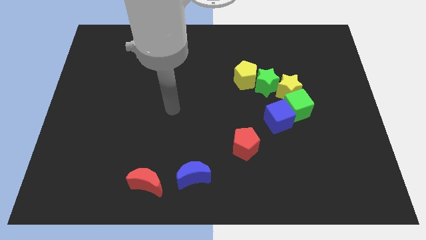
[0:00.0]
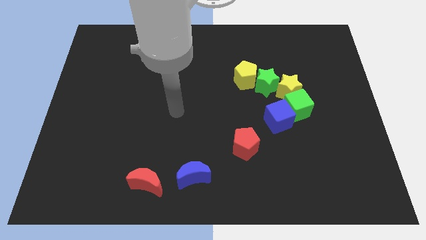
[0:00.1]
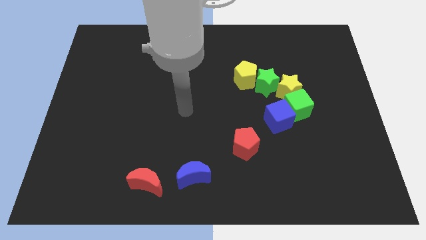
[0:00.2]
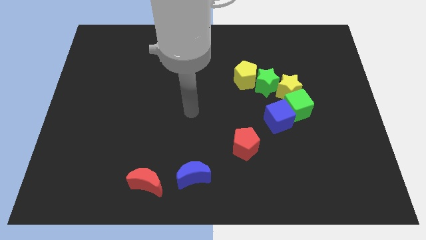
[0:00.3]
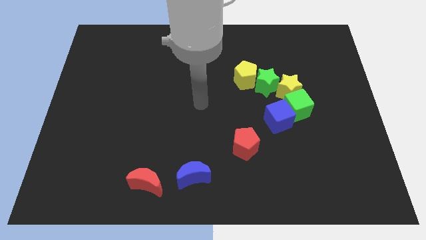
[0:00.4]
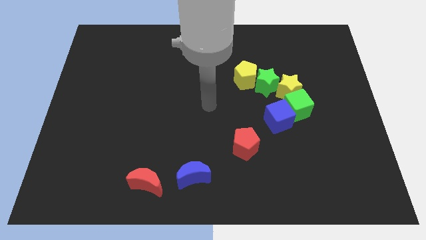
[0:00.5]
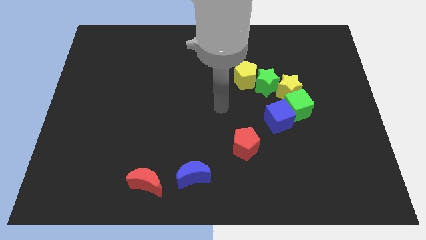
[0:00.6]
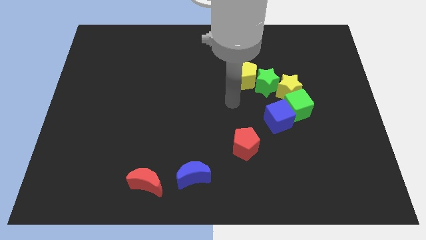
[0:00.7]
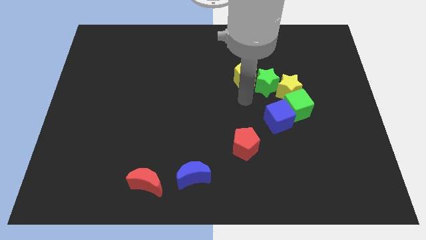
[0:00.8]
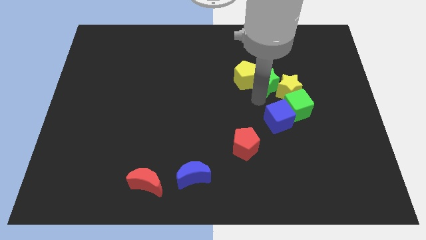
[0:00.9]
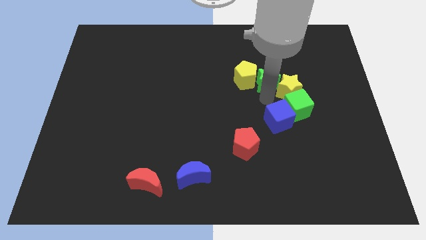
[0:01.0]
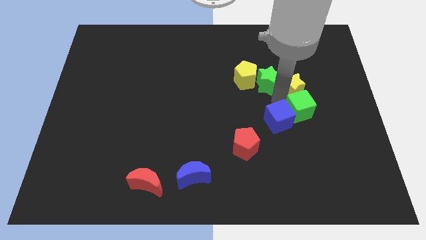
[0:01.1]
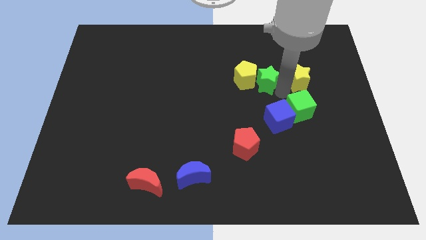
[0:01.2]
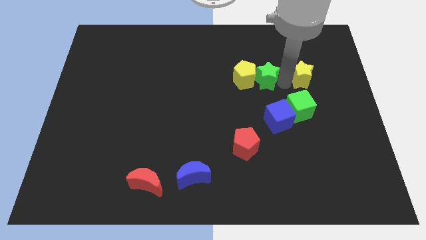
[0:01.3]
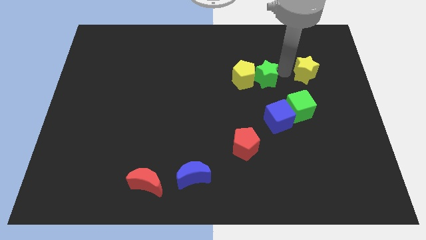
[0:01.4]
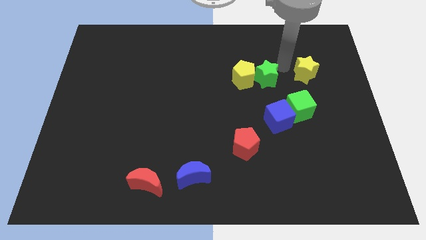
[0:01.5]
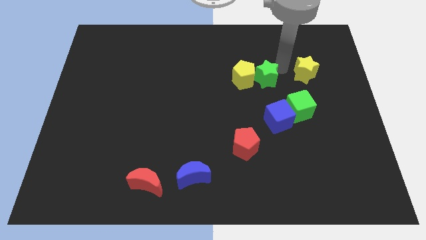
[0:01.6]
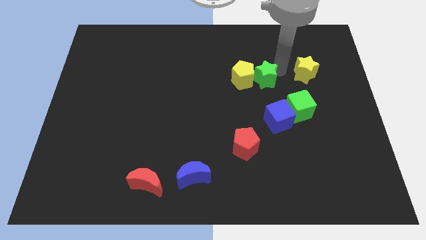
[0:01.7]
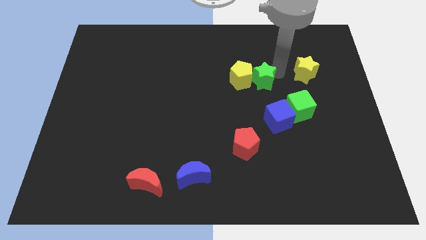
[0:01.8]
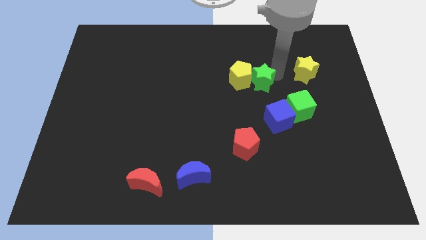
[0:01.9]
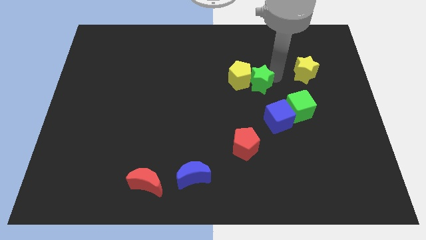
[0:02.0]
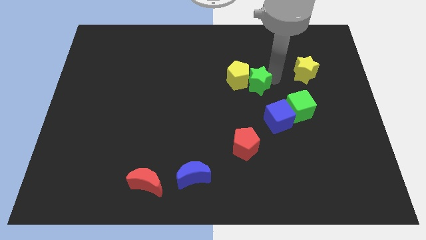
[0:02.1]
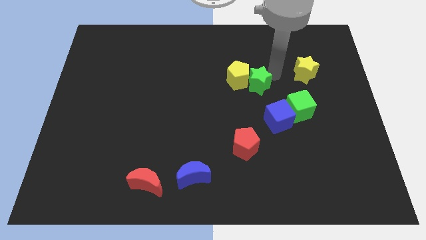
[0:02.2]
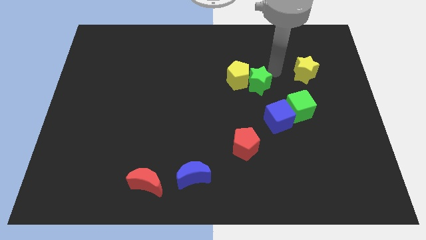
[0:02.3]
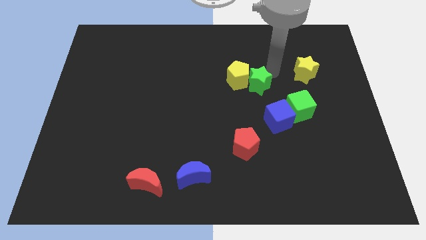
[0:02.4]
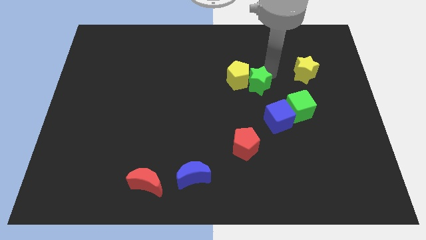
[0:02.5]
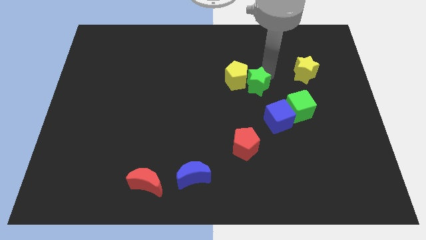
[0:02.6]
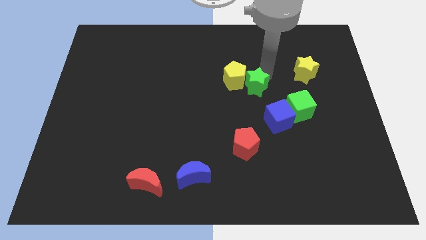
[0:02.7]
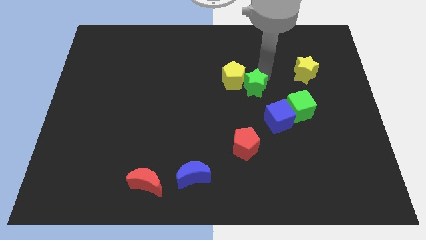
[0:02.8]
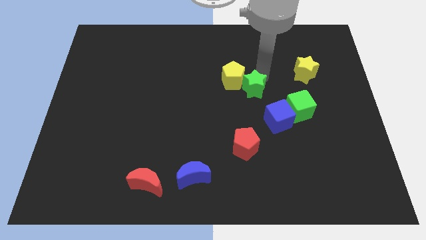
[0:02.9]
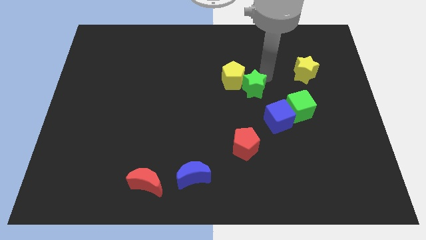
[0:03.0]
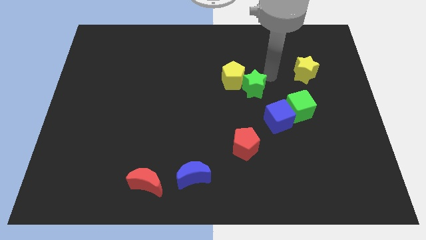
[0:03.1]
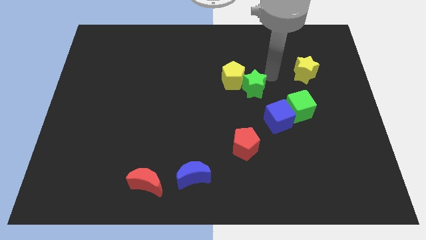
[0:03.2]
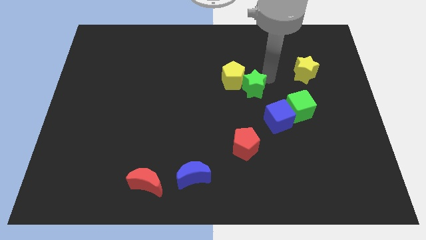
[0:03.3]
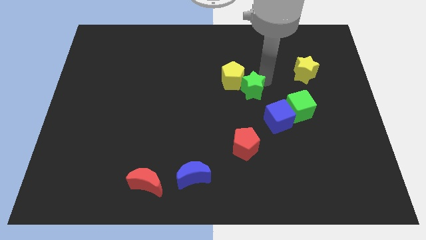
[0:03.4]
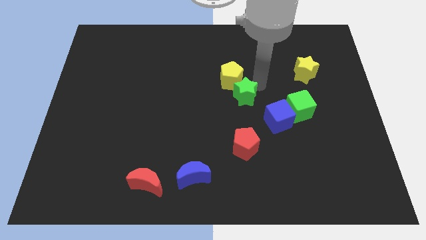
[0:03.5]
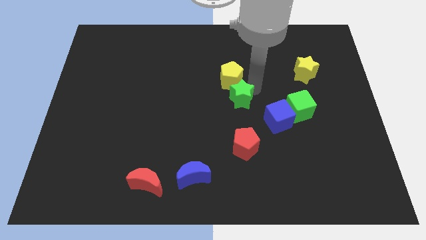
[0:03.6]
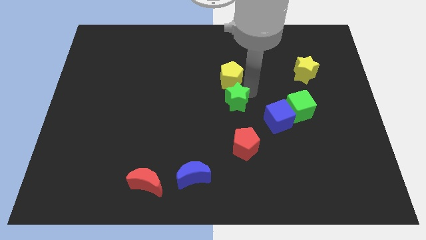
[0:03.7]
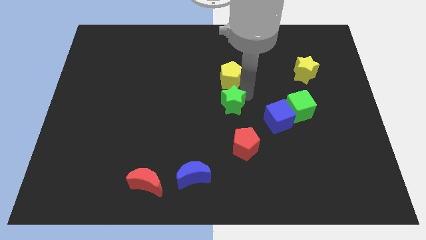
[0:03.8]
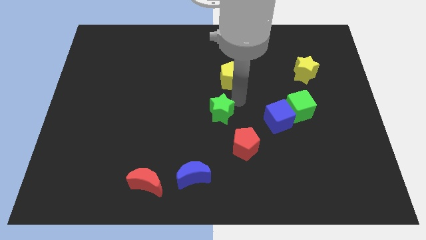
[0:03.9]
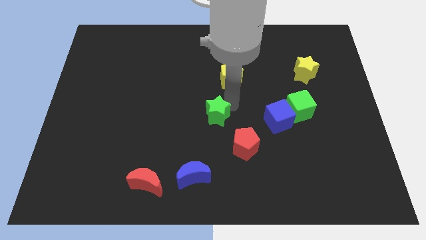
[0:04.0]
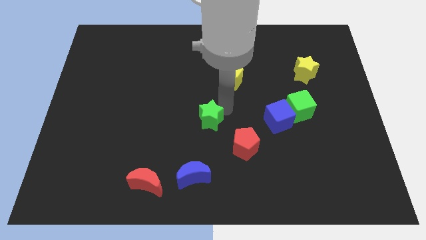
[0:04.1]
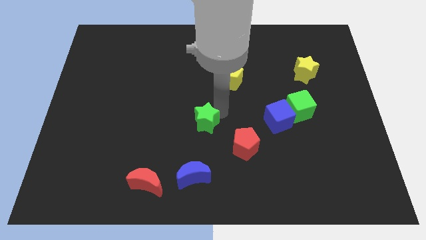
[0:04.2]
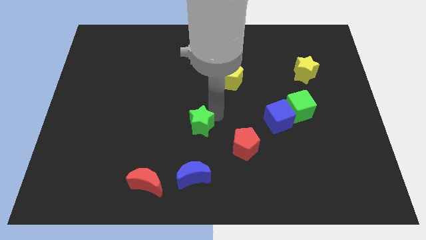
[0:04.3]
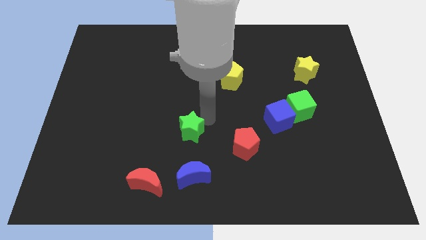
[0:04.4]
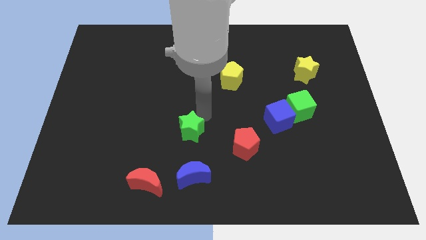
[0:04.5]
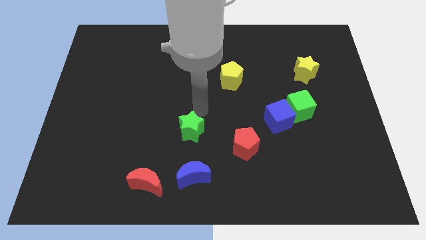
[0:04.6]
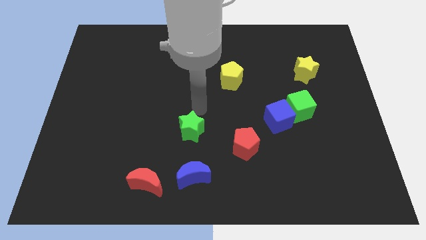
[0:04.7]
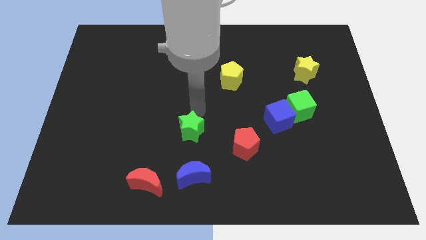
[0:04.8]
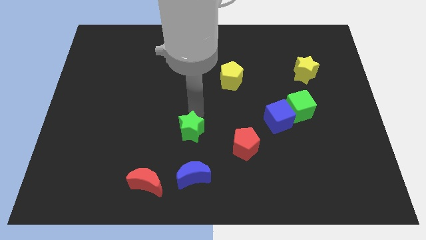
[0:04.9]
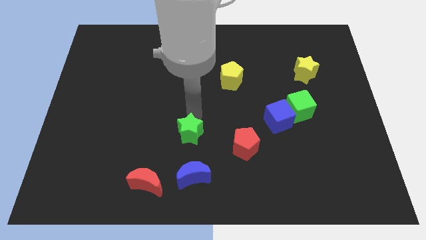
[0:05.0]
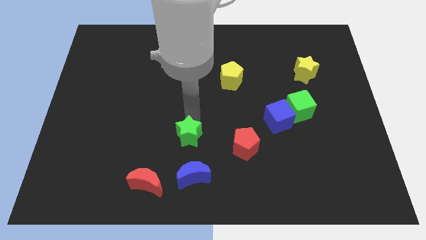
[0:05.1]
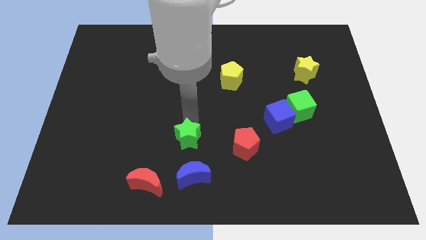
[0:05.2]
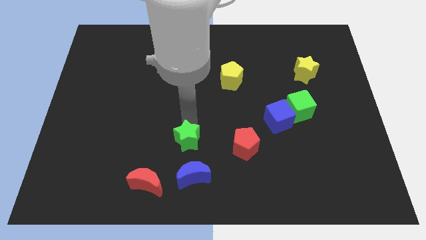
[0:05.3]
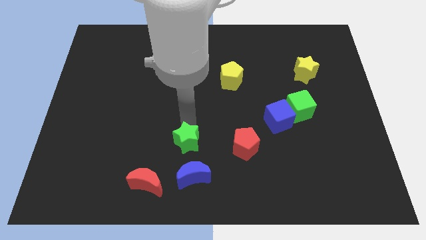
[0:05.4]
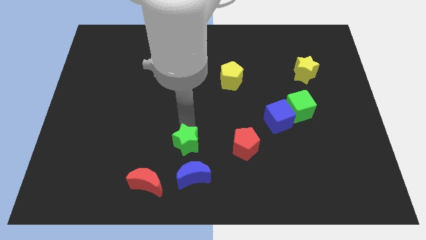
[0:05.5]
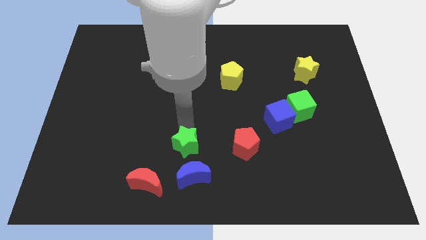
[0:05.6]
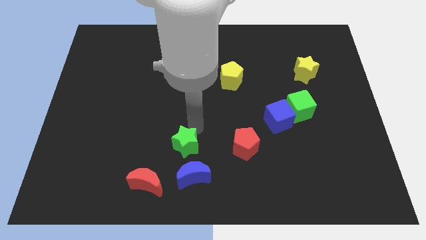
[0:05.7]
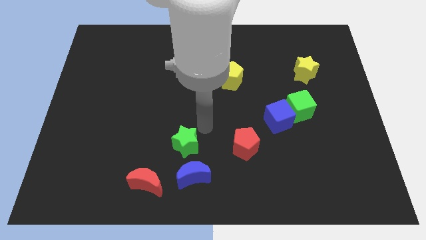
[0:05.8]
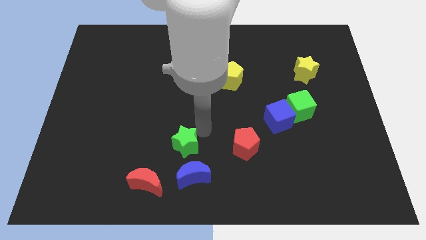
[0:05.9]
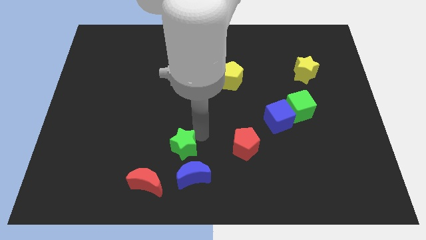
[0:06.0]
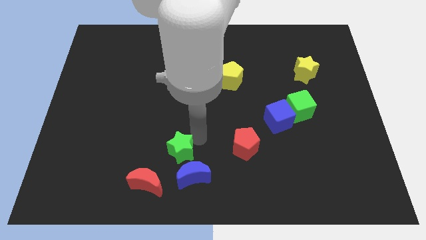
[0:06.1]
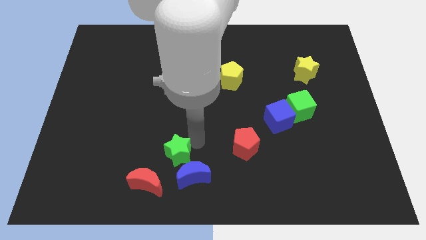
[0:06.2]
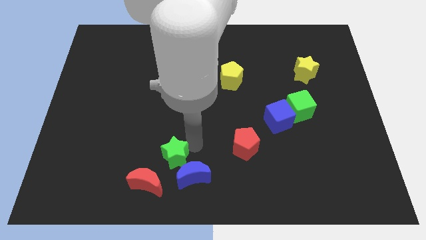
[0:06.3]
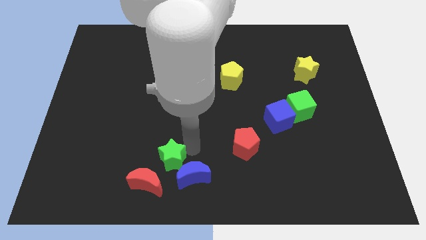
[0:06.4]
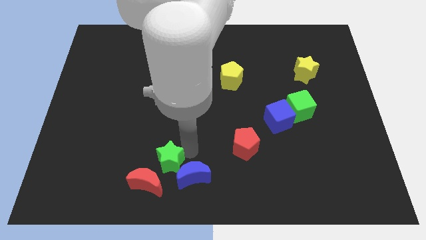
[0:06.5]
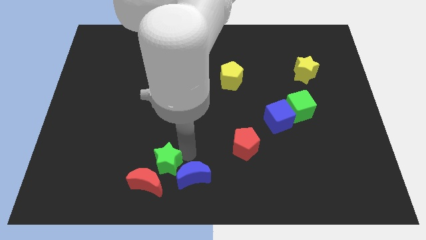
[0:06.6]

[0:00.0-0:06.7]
put the green star to the red moon

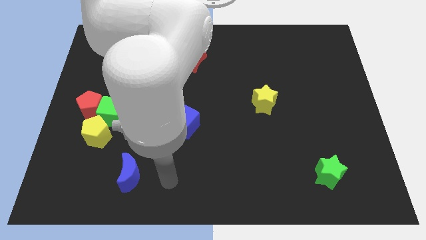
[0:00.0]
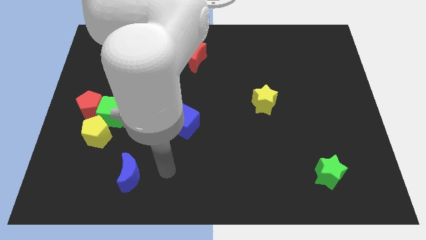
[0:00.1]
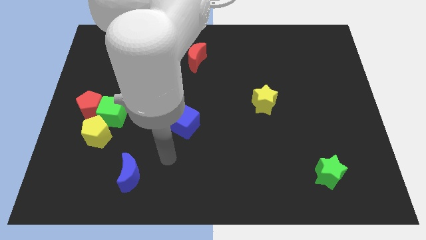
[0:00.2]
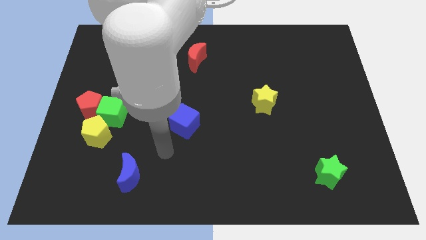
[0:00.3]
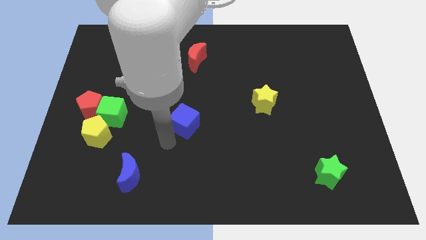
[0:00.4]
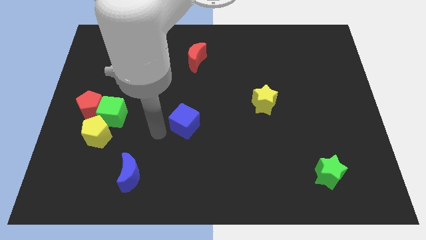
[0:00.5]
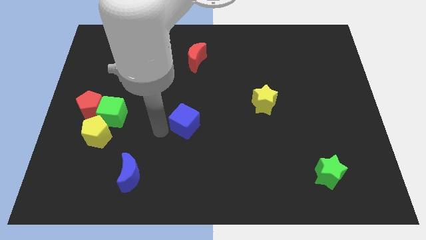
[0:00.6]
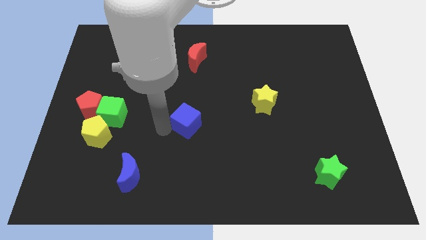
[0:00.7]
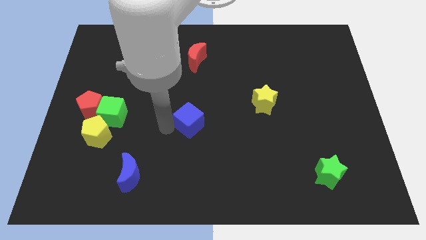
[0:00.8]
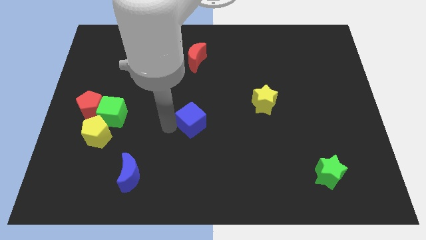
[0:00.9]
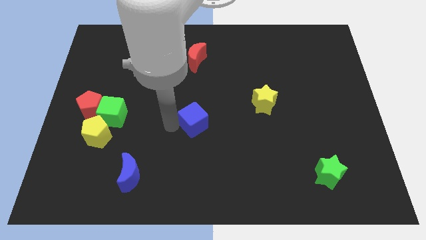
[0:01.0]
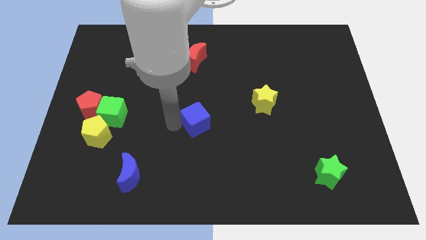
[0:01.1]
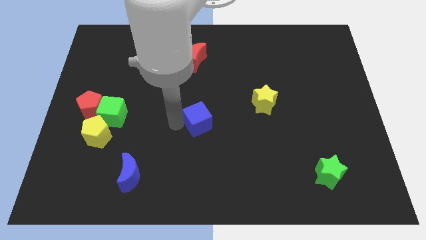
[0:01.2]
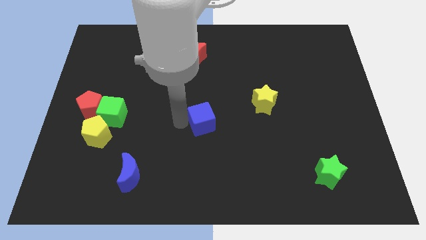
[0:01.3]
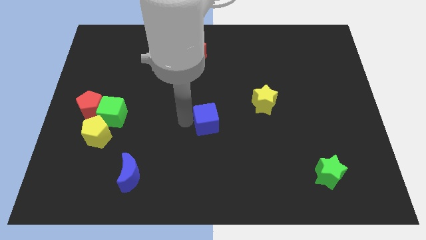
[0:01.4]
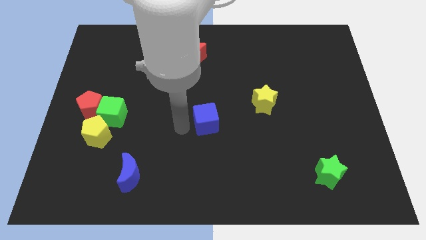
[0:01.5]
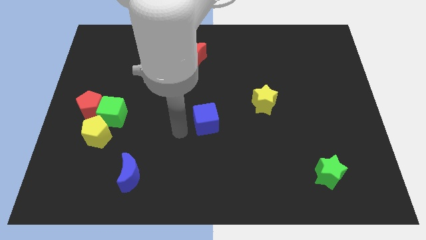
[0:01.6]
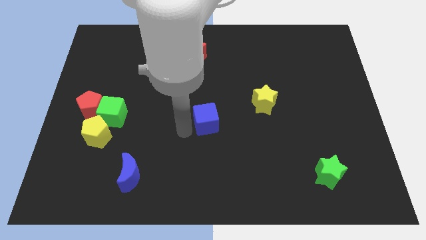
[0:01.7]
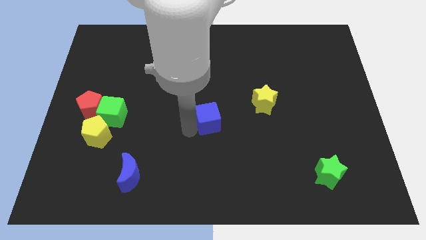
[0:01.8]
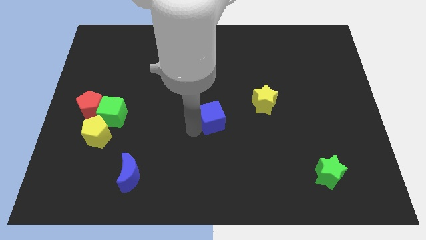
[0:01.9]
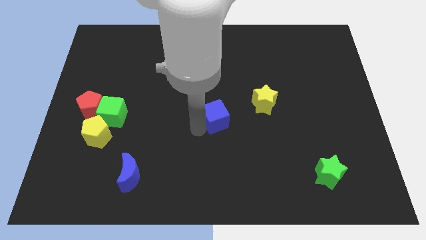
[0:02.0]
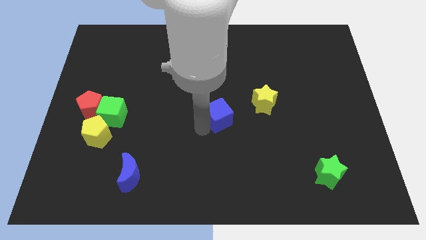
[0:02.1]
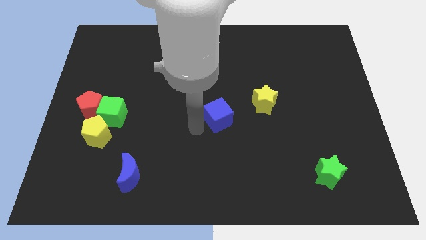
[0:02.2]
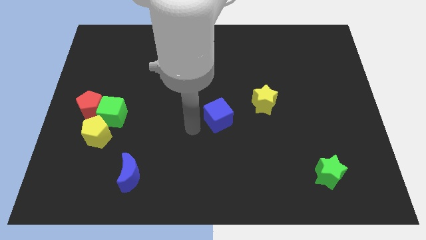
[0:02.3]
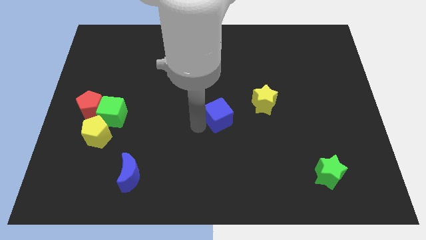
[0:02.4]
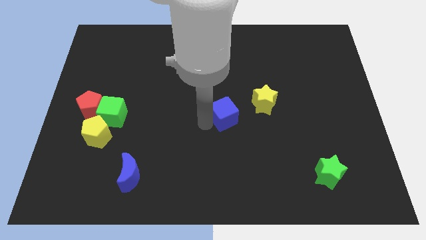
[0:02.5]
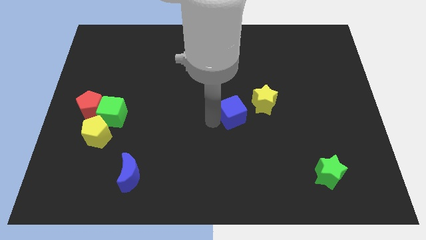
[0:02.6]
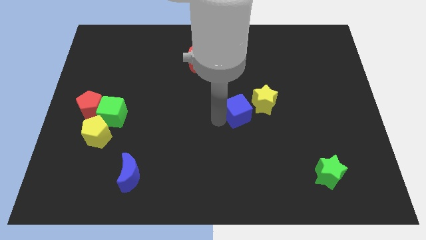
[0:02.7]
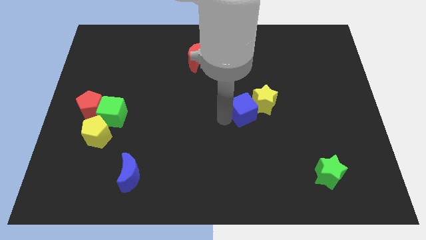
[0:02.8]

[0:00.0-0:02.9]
put the blue cube next to the yellow star
